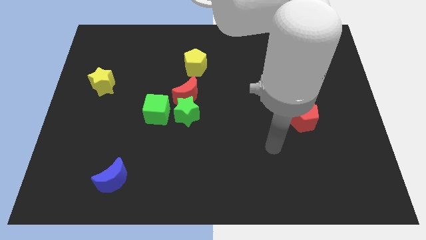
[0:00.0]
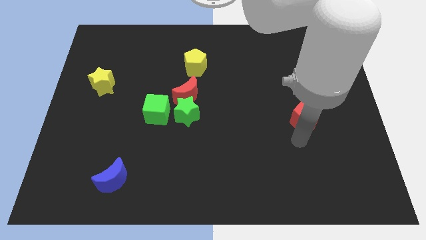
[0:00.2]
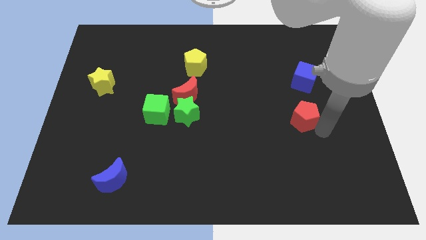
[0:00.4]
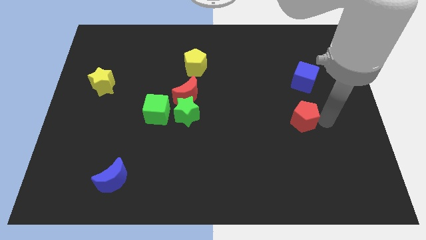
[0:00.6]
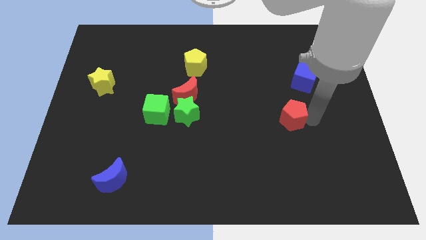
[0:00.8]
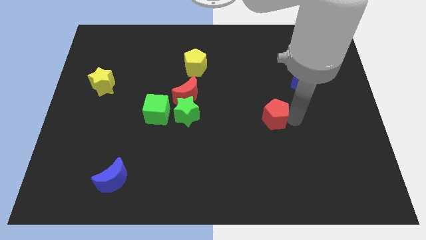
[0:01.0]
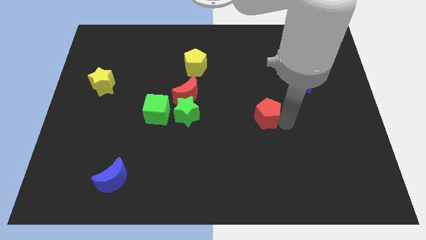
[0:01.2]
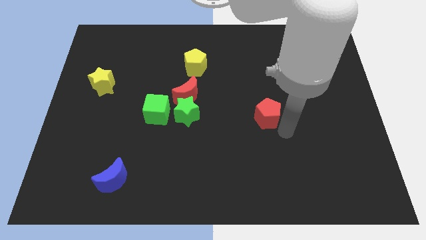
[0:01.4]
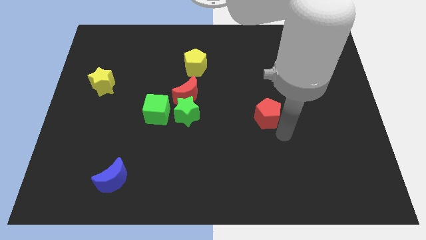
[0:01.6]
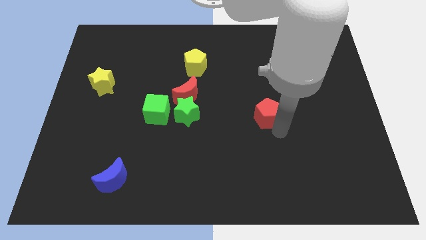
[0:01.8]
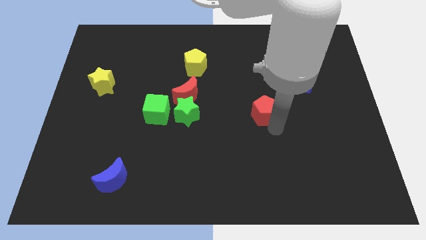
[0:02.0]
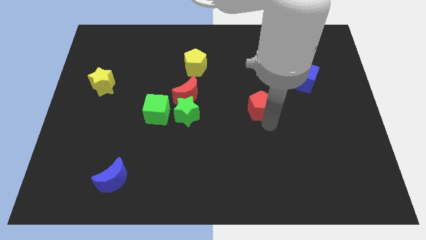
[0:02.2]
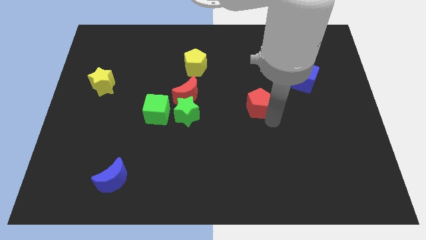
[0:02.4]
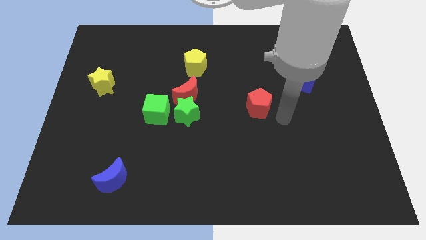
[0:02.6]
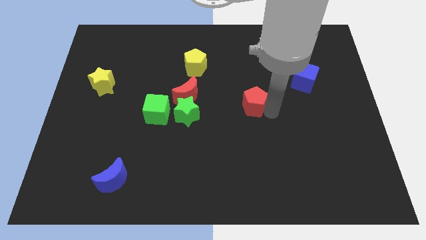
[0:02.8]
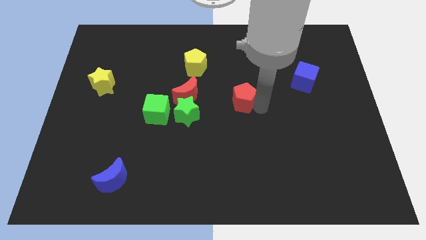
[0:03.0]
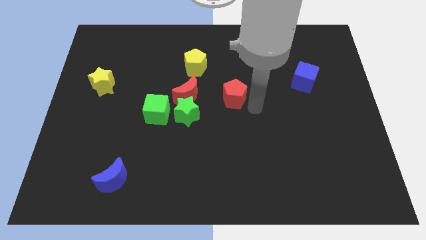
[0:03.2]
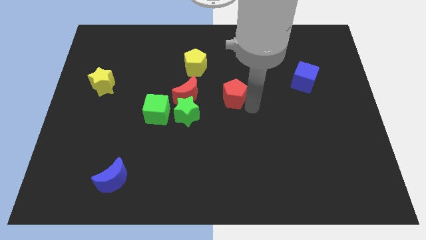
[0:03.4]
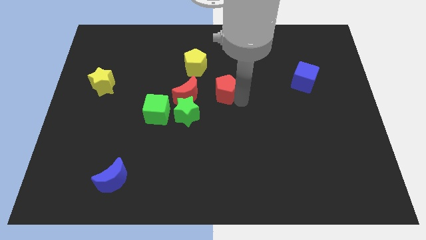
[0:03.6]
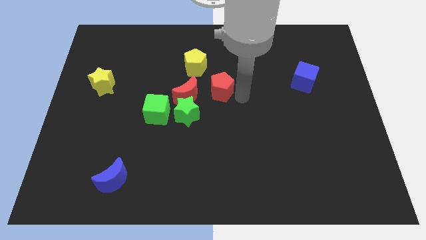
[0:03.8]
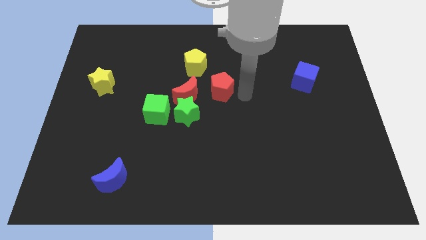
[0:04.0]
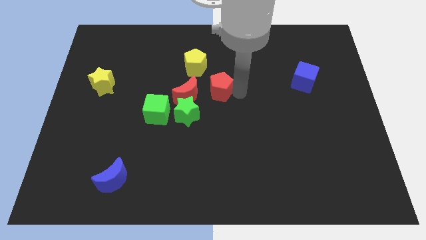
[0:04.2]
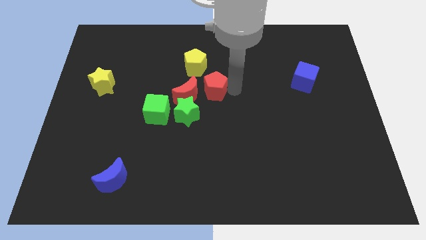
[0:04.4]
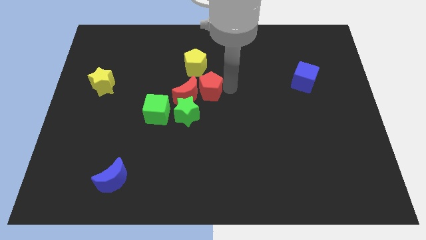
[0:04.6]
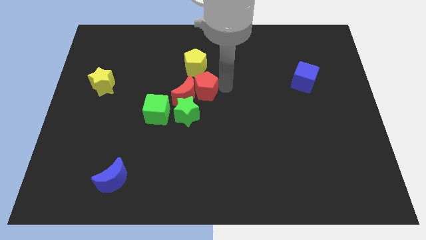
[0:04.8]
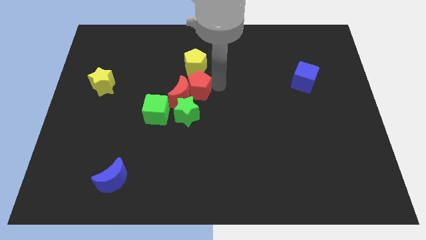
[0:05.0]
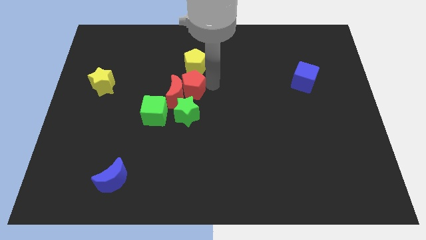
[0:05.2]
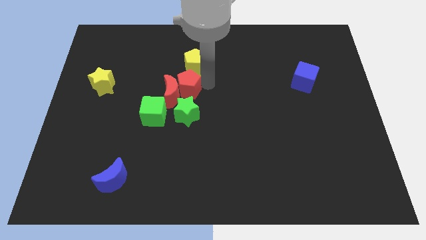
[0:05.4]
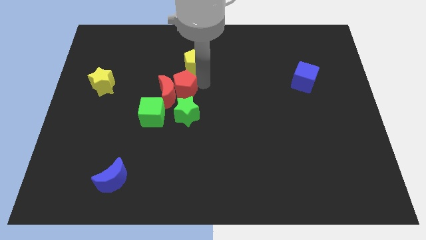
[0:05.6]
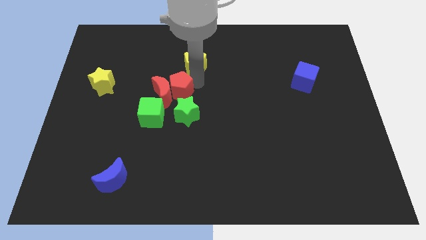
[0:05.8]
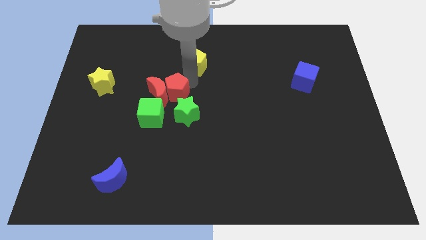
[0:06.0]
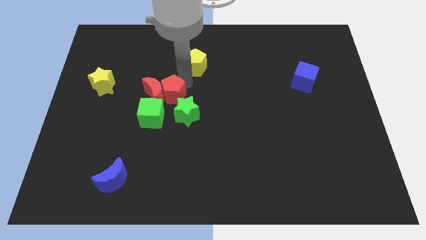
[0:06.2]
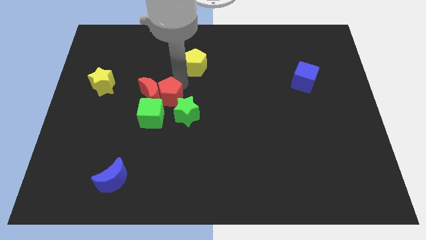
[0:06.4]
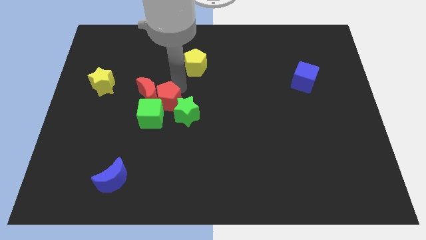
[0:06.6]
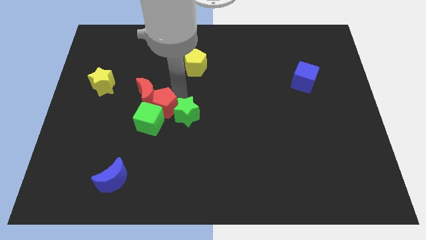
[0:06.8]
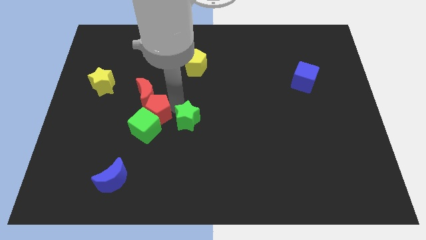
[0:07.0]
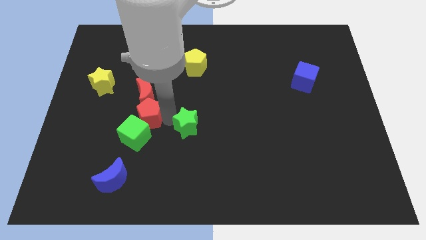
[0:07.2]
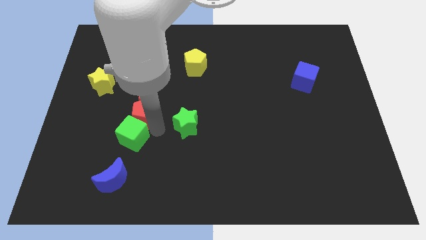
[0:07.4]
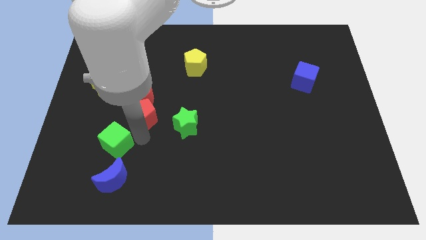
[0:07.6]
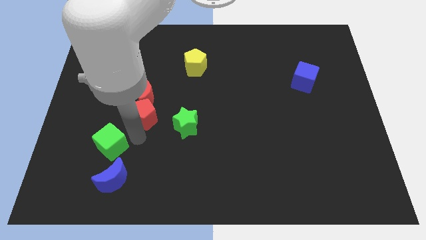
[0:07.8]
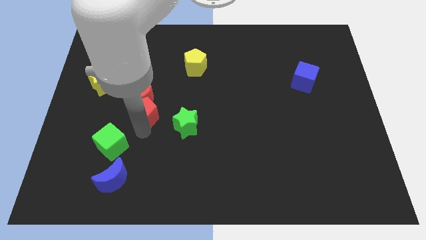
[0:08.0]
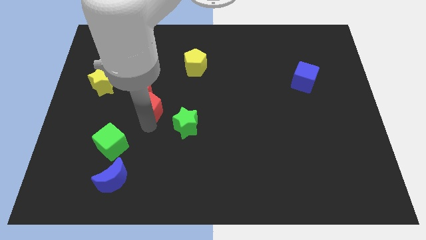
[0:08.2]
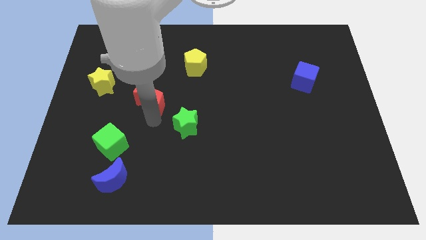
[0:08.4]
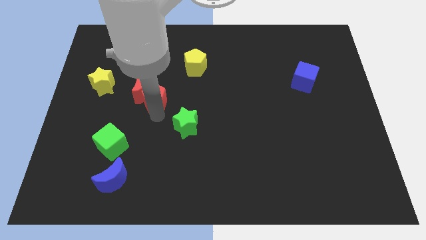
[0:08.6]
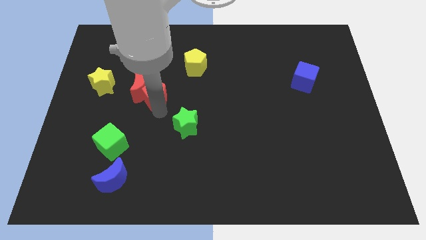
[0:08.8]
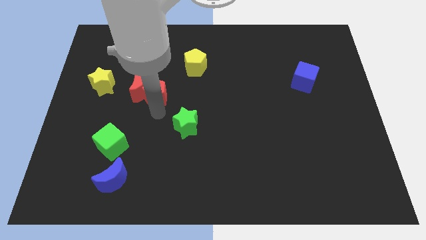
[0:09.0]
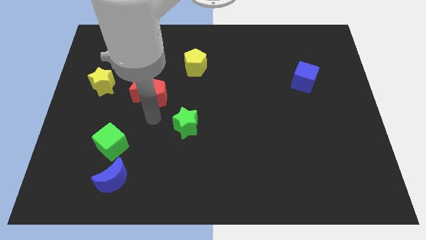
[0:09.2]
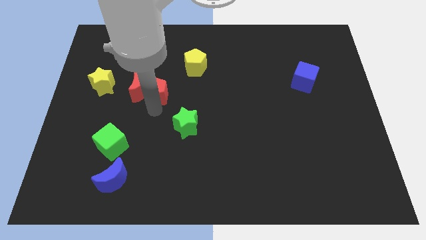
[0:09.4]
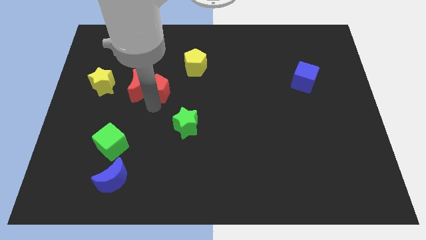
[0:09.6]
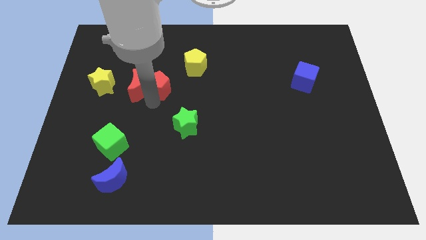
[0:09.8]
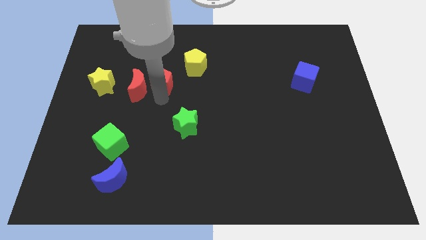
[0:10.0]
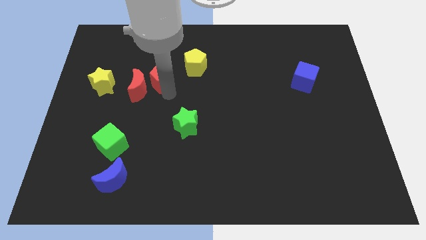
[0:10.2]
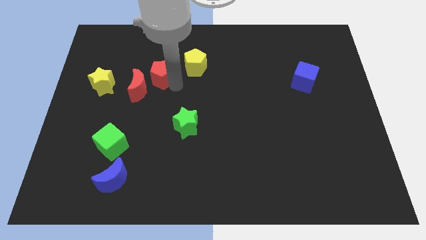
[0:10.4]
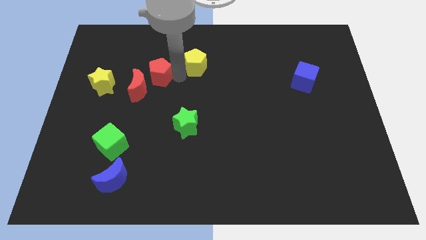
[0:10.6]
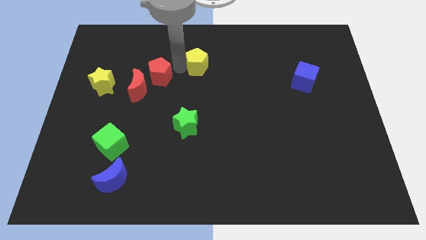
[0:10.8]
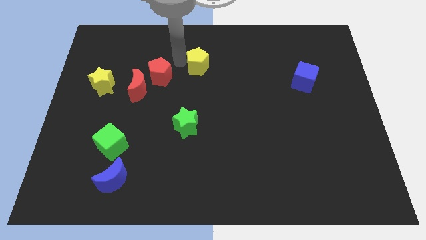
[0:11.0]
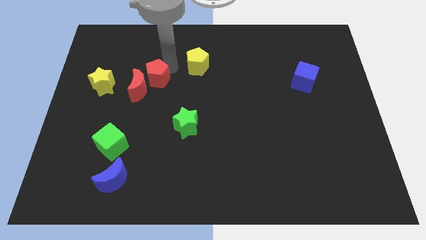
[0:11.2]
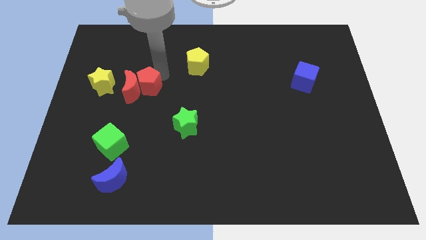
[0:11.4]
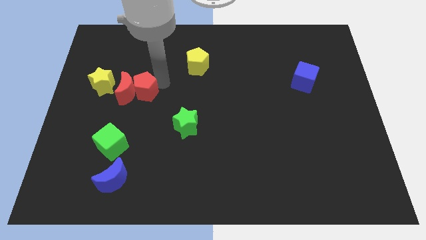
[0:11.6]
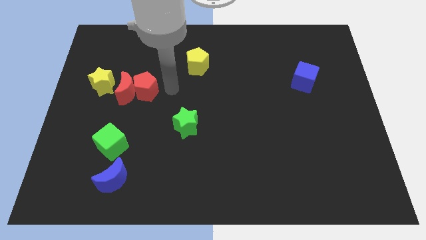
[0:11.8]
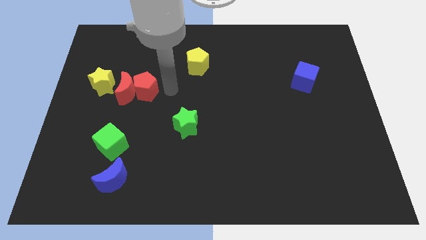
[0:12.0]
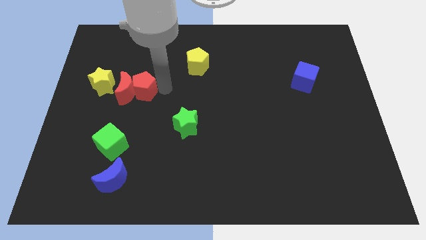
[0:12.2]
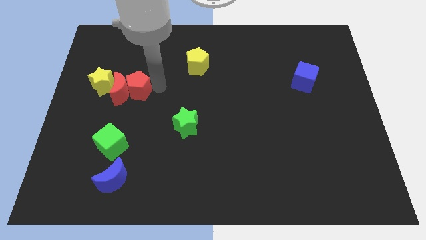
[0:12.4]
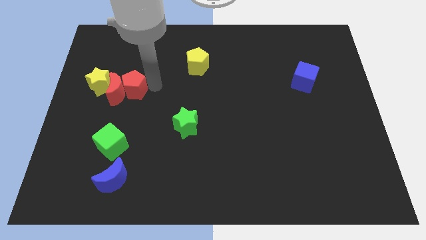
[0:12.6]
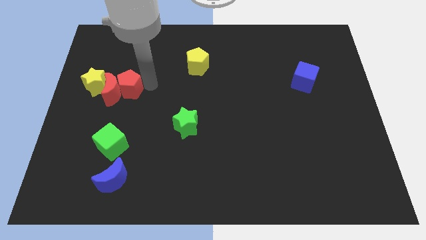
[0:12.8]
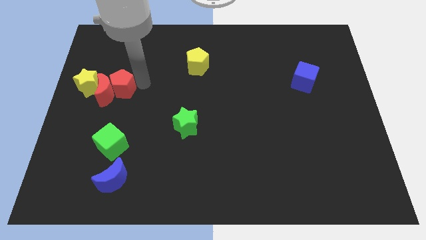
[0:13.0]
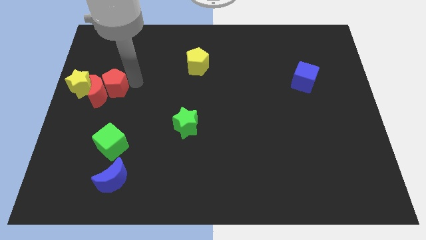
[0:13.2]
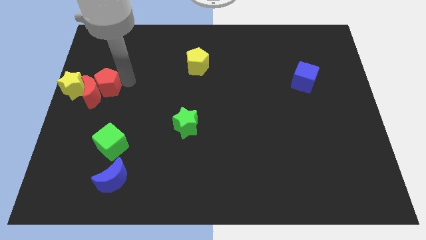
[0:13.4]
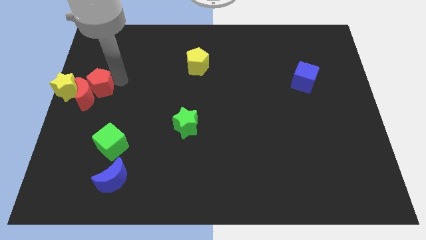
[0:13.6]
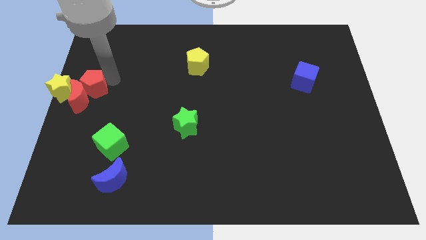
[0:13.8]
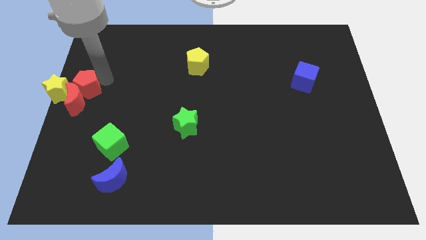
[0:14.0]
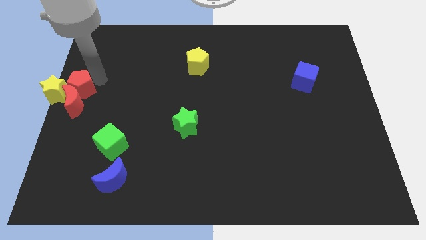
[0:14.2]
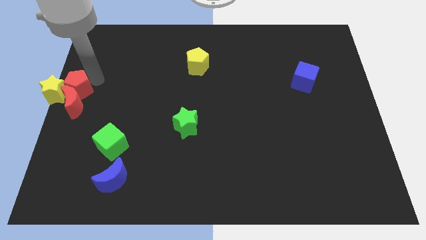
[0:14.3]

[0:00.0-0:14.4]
push the red pentagon next to the yellow star
